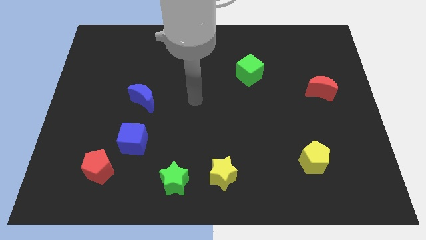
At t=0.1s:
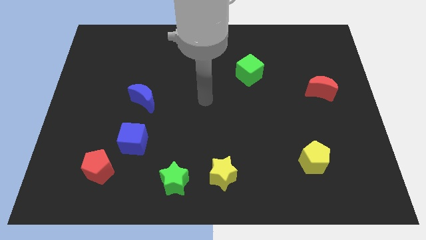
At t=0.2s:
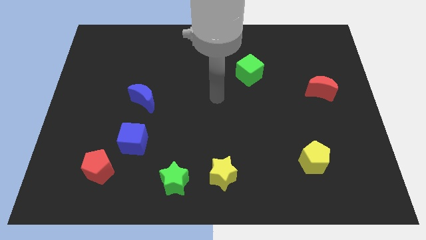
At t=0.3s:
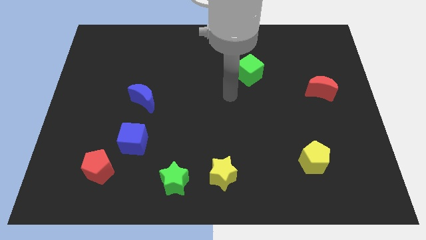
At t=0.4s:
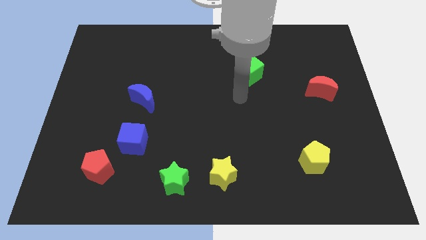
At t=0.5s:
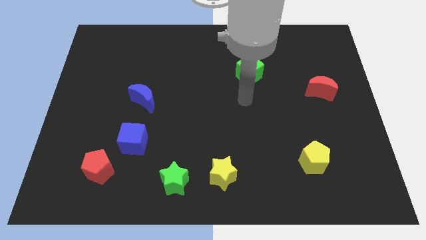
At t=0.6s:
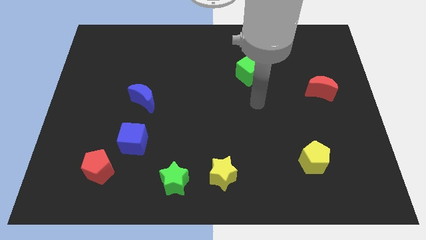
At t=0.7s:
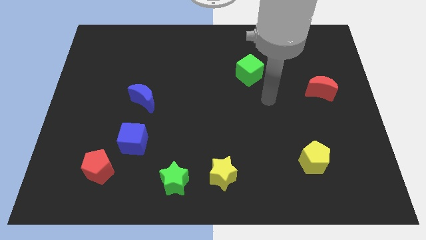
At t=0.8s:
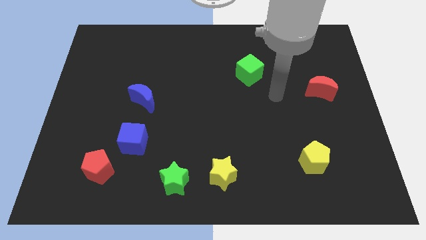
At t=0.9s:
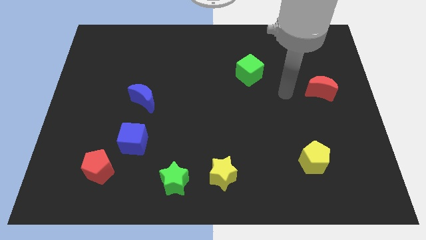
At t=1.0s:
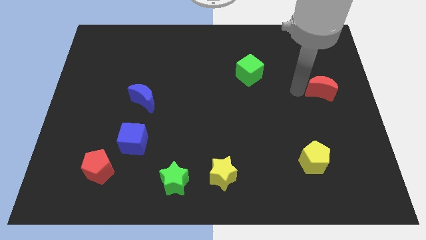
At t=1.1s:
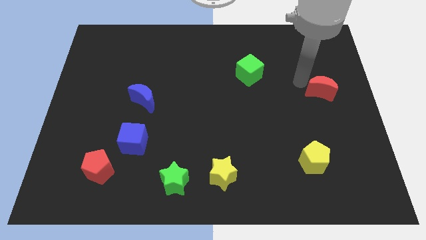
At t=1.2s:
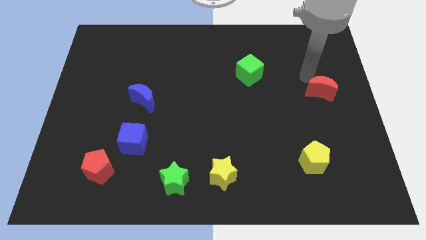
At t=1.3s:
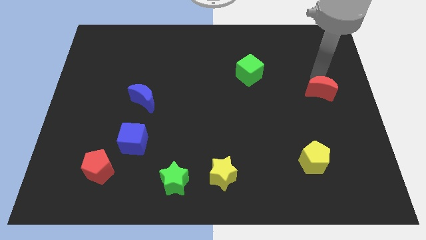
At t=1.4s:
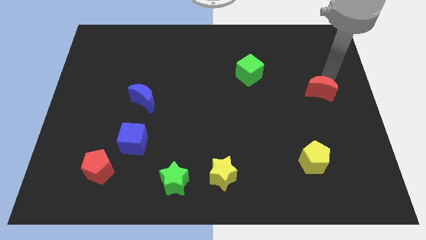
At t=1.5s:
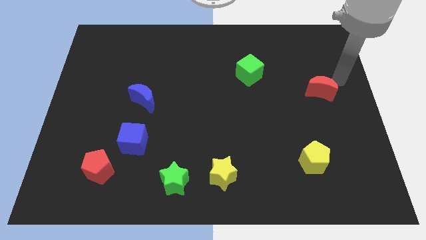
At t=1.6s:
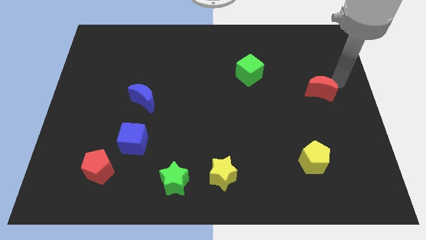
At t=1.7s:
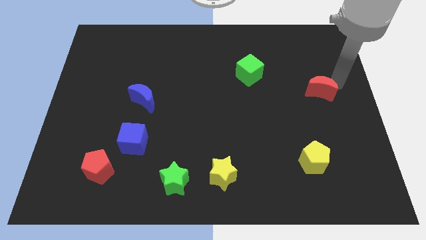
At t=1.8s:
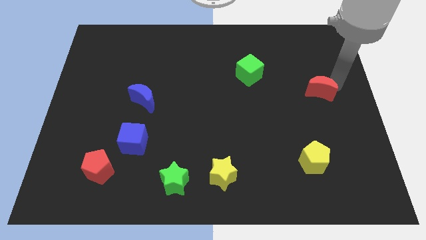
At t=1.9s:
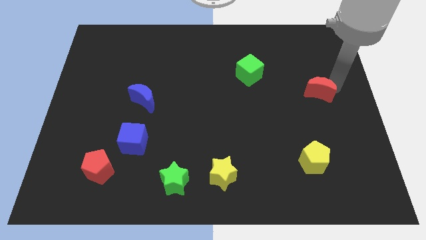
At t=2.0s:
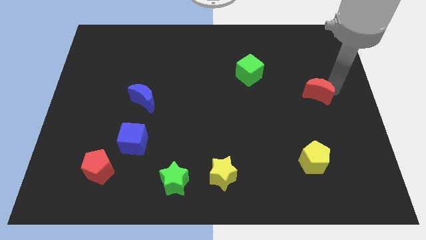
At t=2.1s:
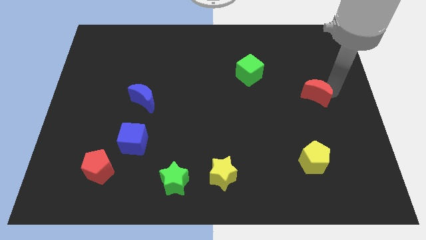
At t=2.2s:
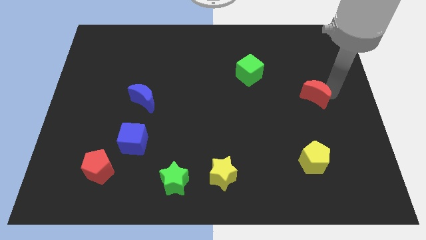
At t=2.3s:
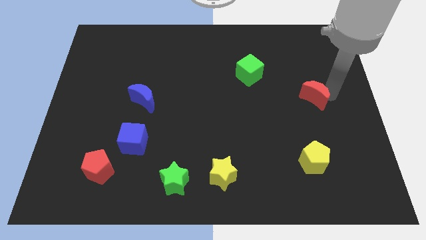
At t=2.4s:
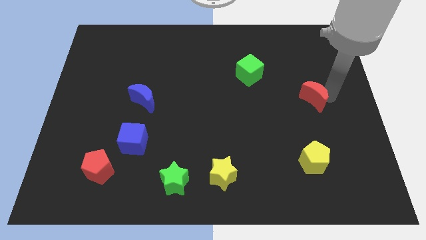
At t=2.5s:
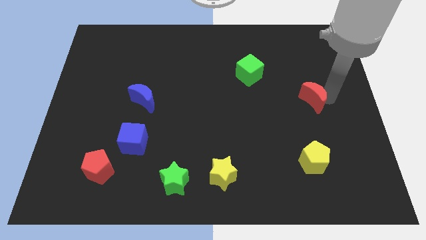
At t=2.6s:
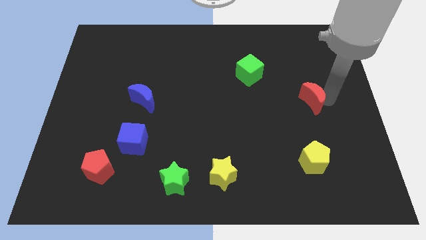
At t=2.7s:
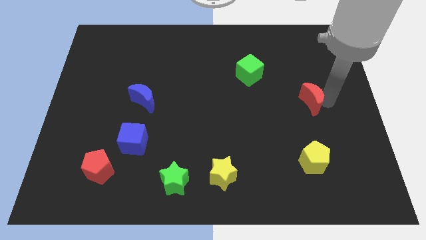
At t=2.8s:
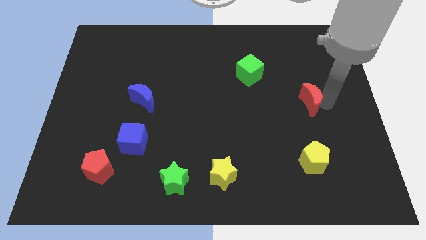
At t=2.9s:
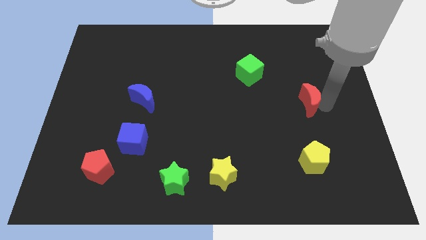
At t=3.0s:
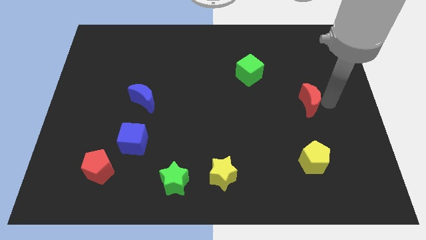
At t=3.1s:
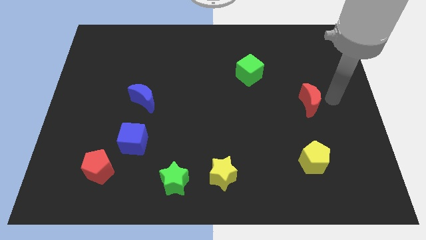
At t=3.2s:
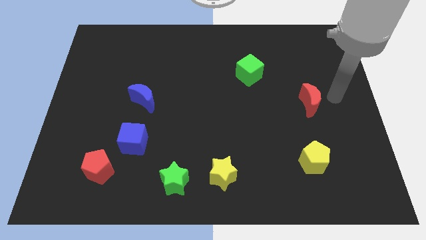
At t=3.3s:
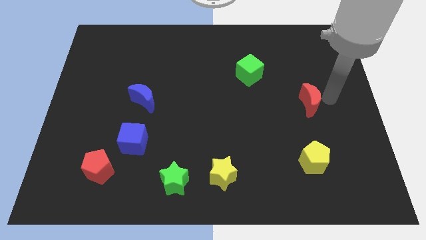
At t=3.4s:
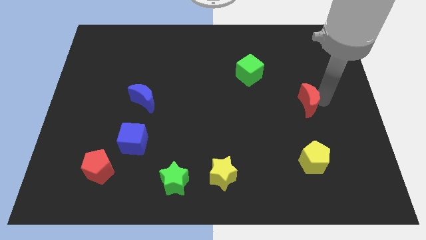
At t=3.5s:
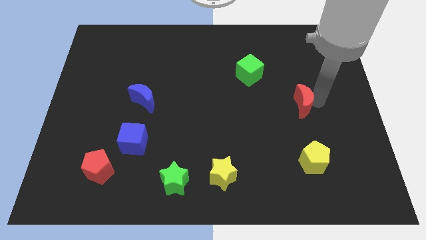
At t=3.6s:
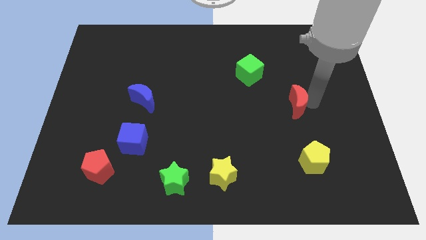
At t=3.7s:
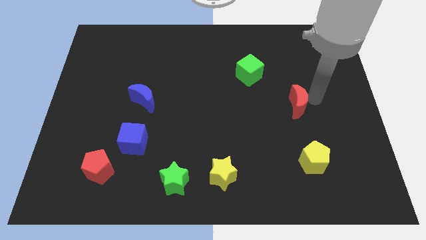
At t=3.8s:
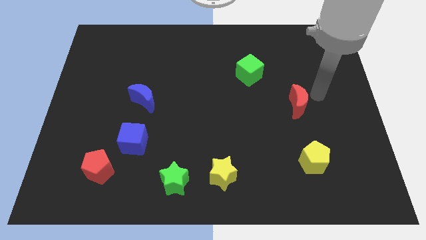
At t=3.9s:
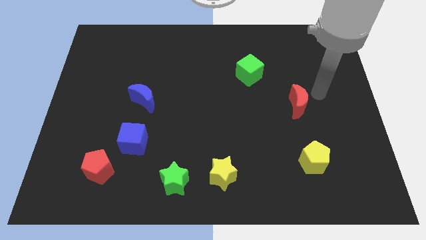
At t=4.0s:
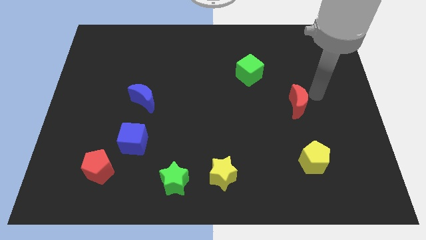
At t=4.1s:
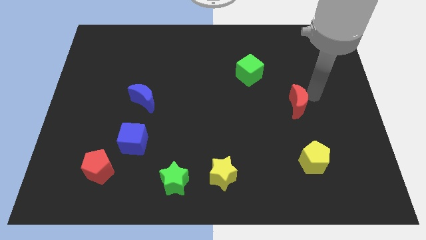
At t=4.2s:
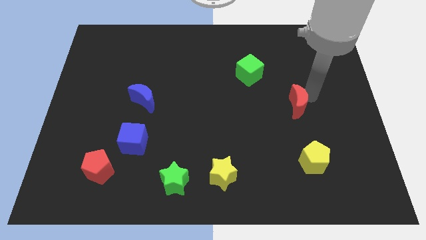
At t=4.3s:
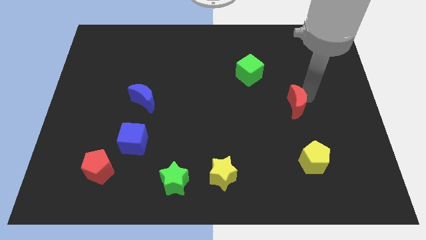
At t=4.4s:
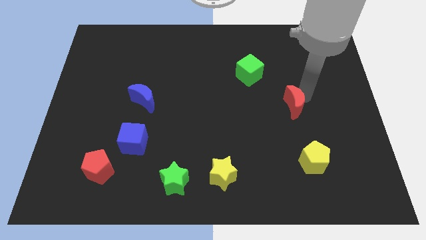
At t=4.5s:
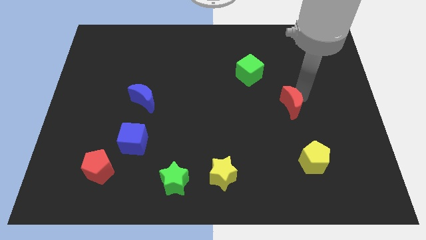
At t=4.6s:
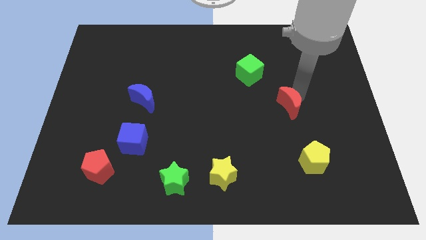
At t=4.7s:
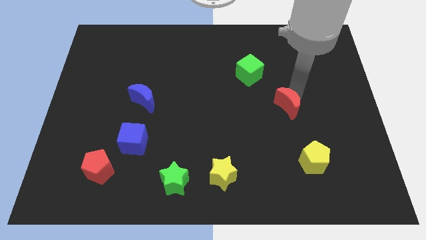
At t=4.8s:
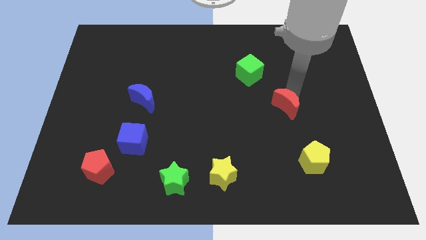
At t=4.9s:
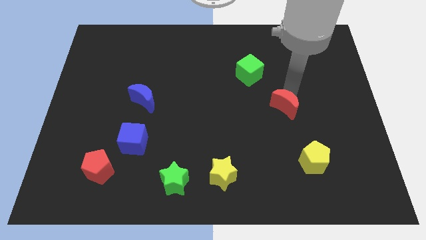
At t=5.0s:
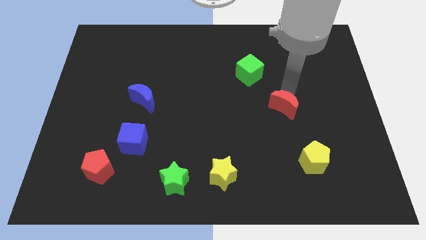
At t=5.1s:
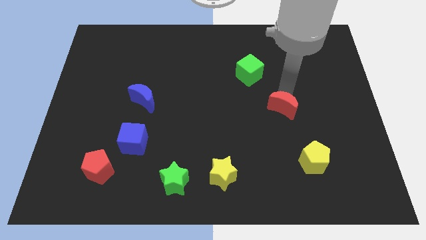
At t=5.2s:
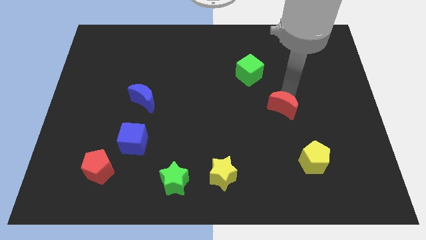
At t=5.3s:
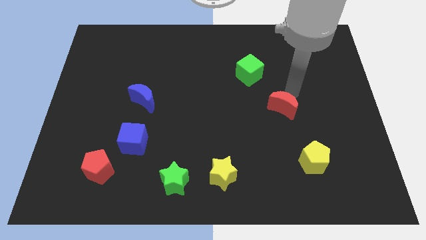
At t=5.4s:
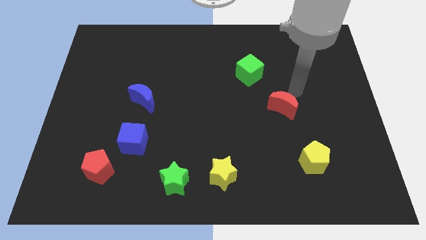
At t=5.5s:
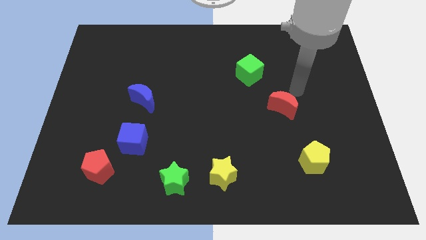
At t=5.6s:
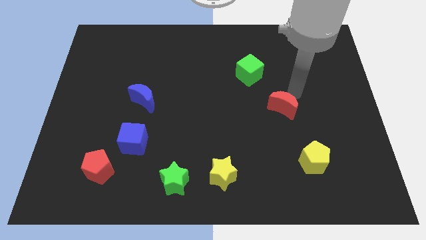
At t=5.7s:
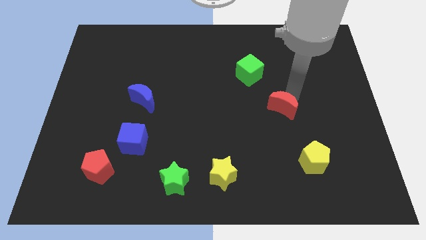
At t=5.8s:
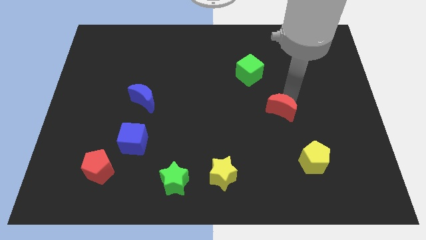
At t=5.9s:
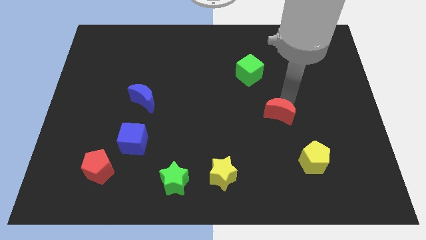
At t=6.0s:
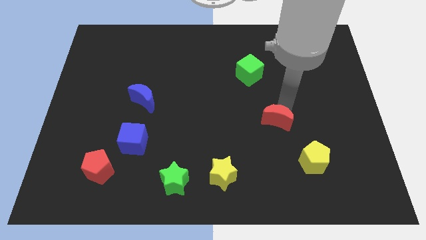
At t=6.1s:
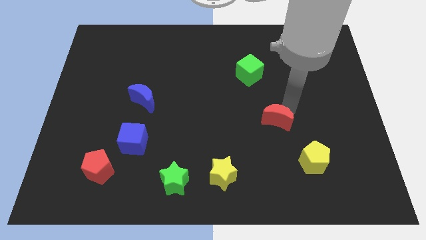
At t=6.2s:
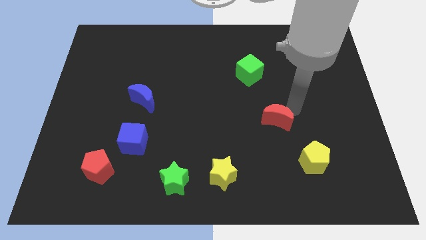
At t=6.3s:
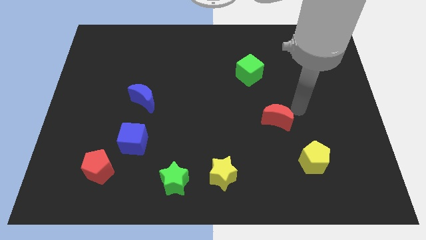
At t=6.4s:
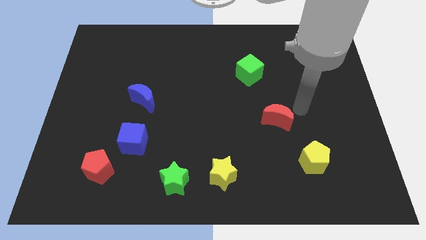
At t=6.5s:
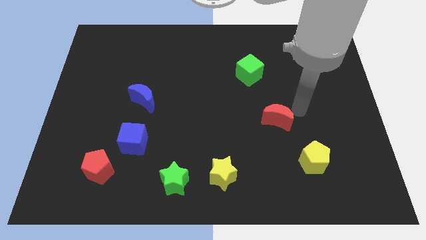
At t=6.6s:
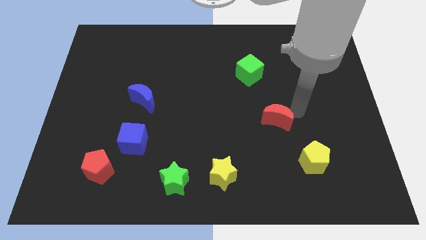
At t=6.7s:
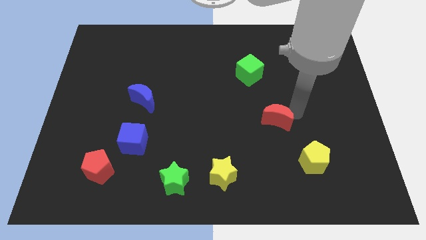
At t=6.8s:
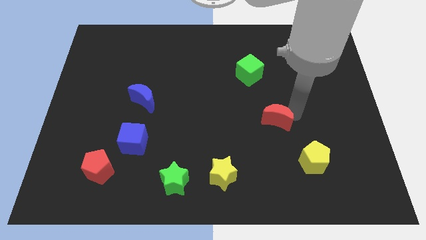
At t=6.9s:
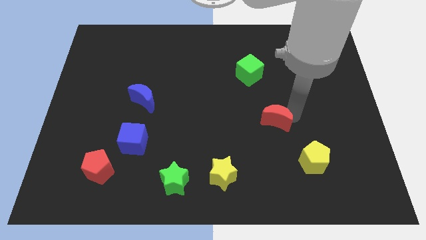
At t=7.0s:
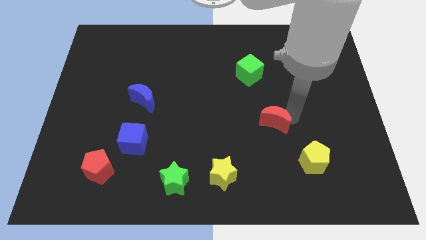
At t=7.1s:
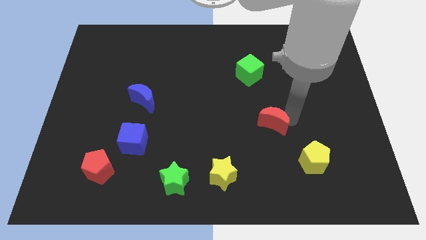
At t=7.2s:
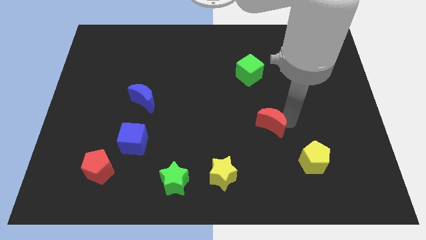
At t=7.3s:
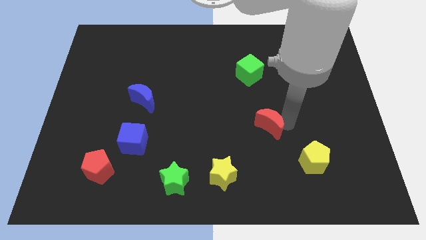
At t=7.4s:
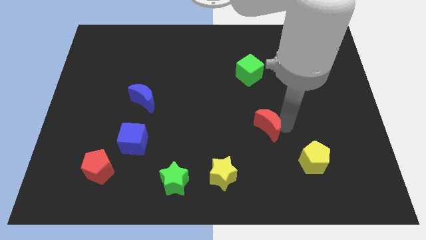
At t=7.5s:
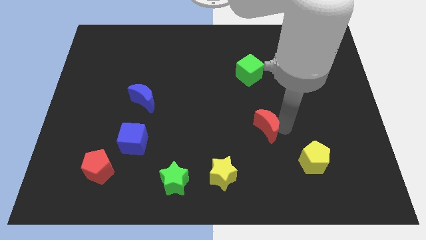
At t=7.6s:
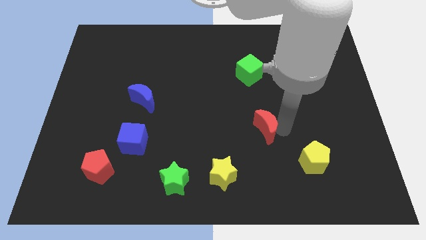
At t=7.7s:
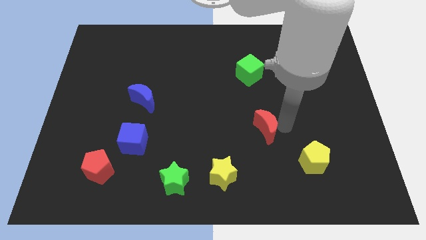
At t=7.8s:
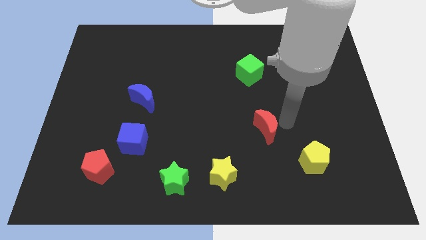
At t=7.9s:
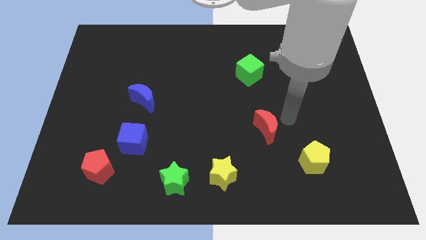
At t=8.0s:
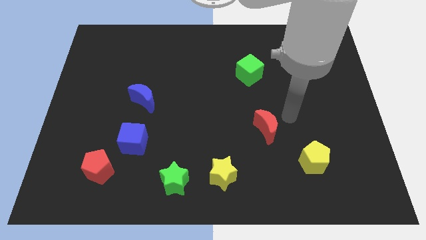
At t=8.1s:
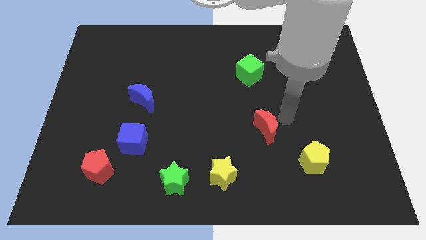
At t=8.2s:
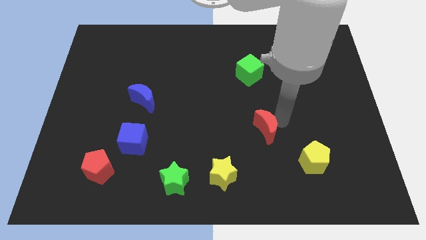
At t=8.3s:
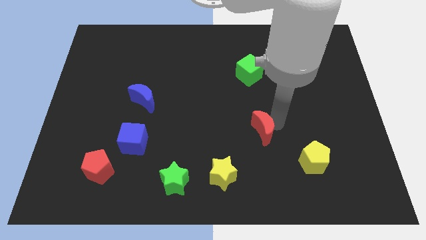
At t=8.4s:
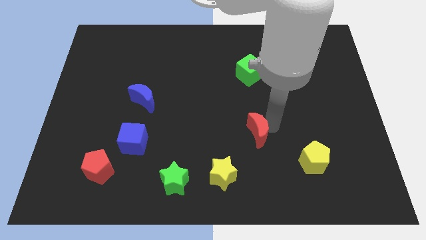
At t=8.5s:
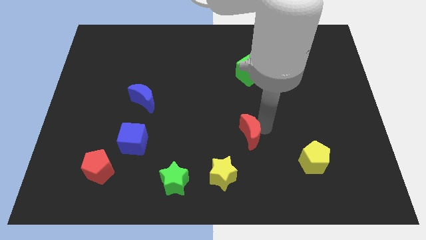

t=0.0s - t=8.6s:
move the red moon to the top right of the yellow star
